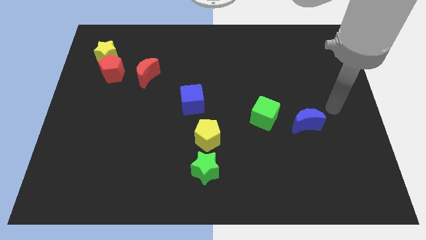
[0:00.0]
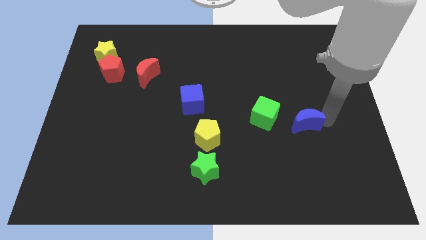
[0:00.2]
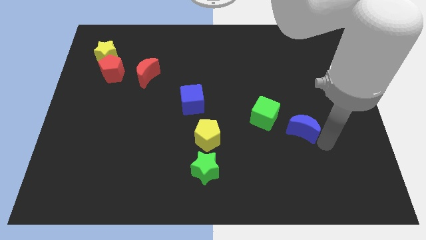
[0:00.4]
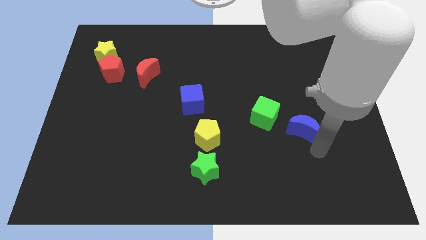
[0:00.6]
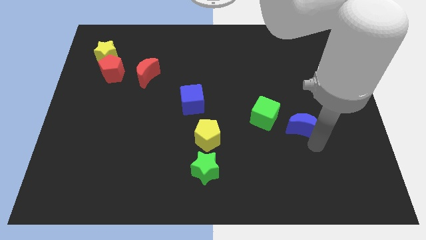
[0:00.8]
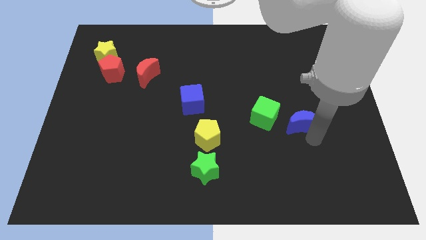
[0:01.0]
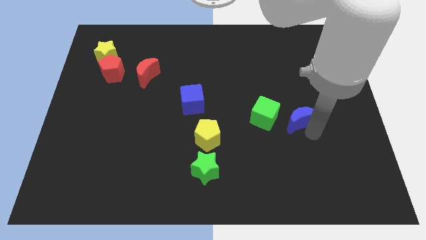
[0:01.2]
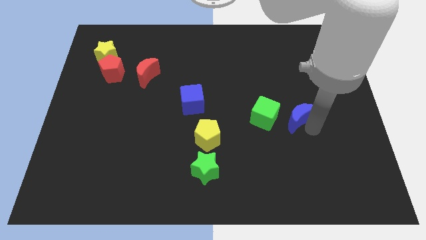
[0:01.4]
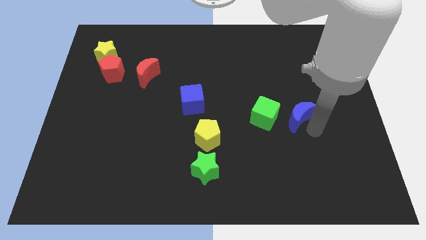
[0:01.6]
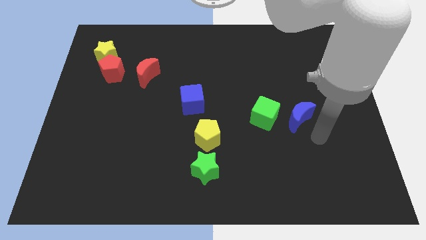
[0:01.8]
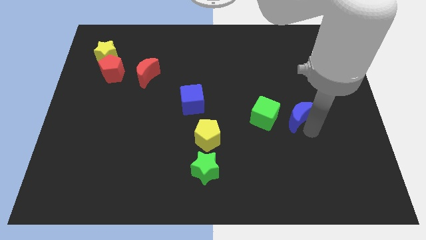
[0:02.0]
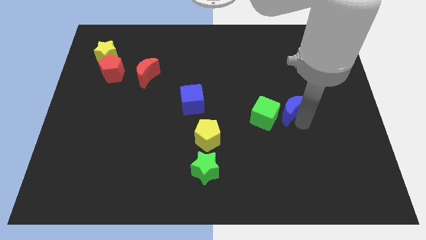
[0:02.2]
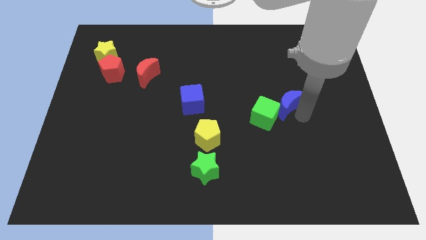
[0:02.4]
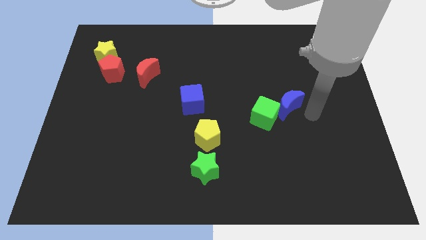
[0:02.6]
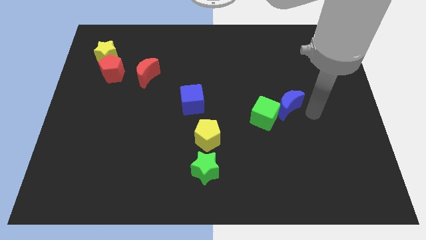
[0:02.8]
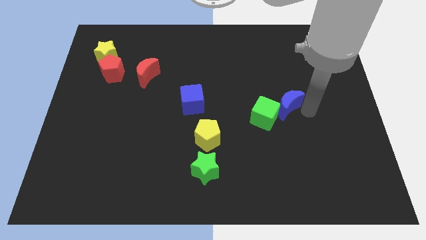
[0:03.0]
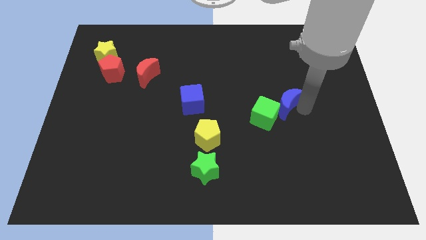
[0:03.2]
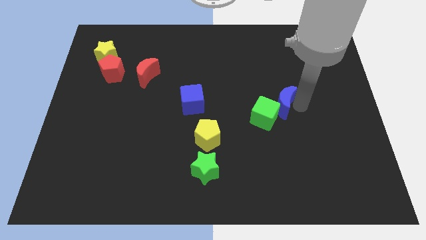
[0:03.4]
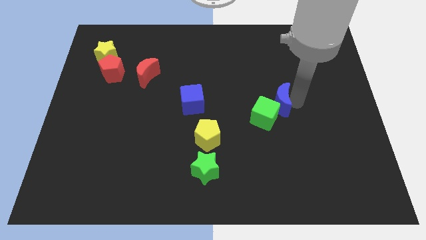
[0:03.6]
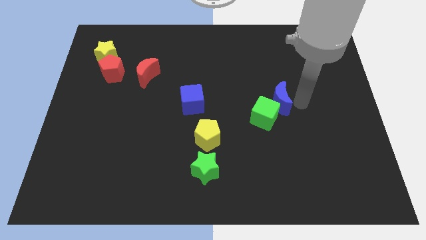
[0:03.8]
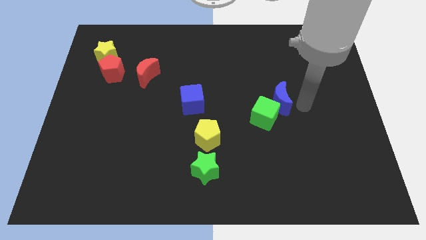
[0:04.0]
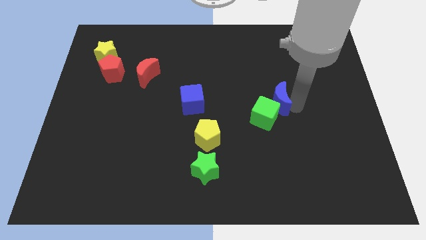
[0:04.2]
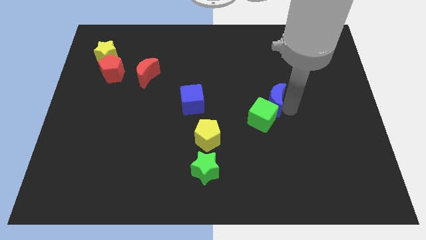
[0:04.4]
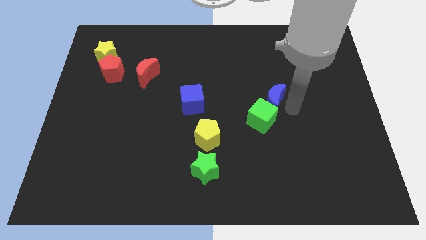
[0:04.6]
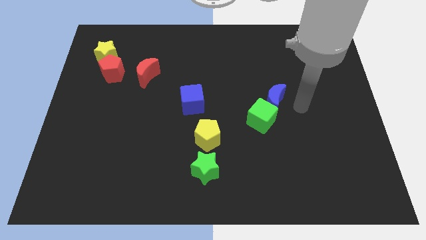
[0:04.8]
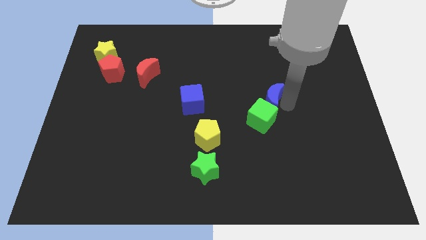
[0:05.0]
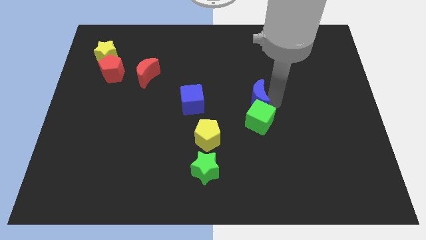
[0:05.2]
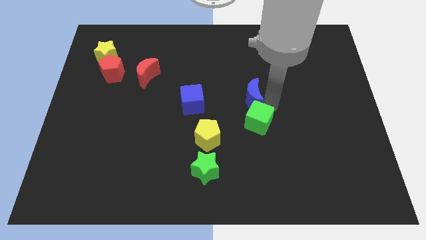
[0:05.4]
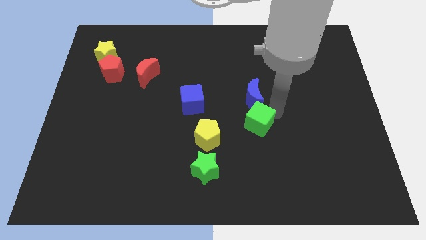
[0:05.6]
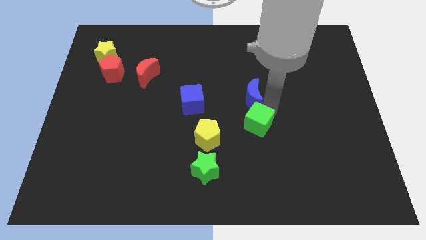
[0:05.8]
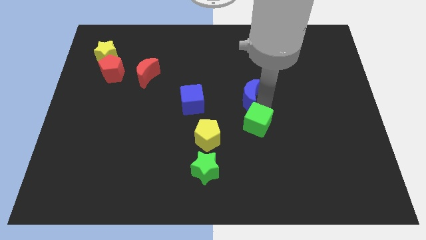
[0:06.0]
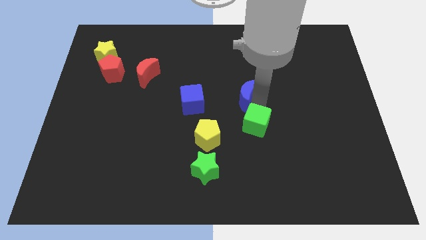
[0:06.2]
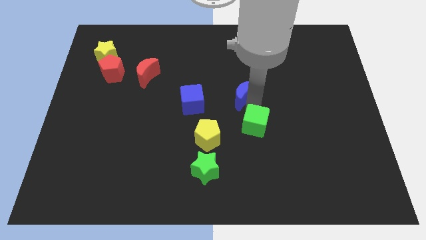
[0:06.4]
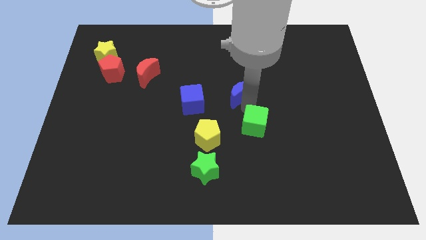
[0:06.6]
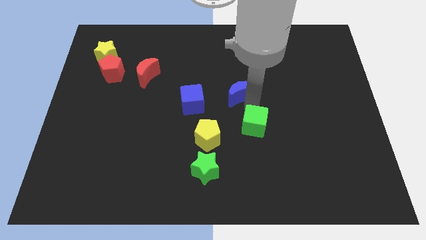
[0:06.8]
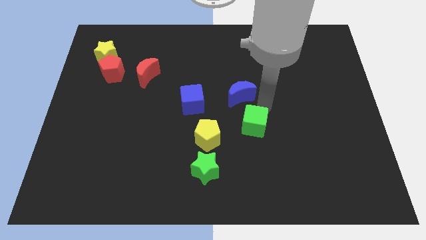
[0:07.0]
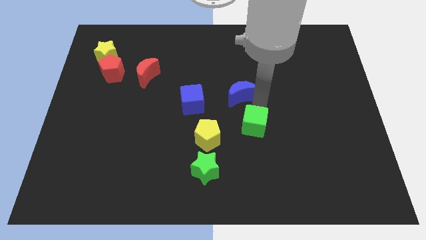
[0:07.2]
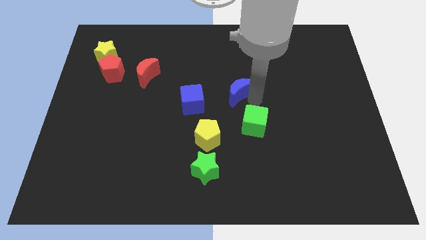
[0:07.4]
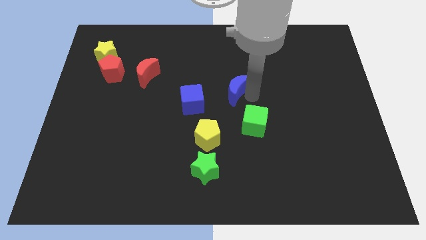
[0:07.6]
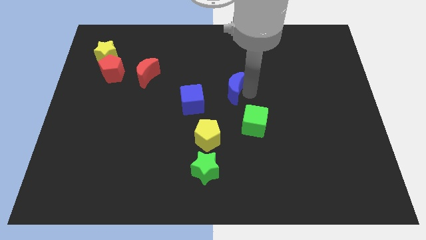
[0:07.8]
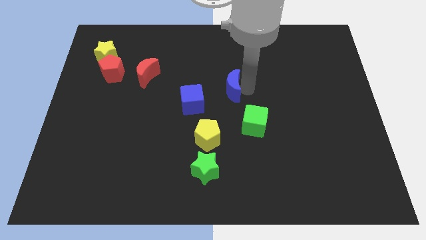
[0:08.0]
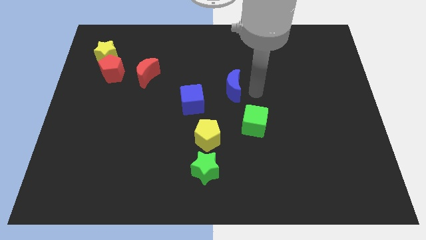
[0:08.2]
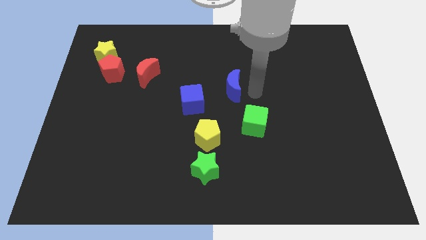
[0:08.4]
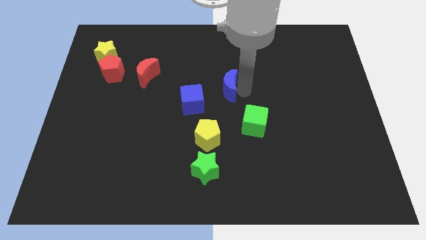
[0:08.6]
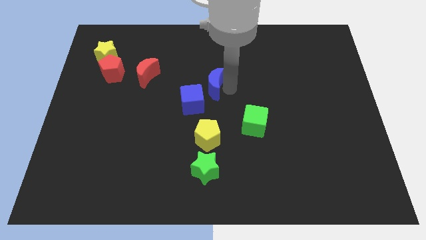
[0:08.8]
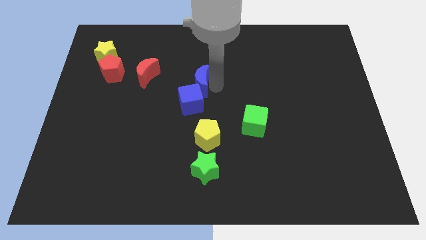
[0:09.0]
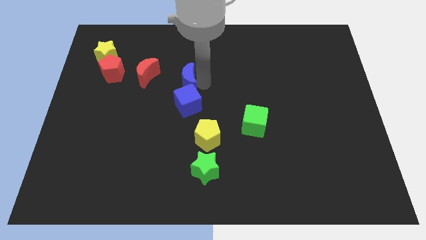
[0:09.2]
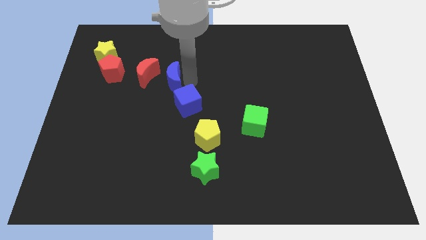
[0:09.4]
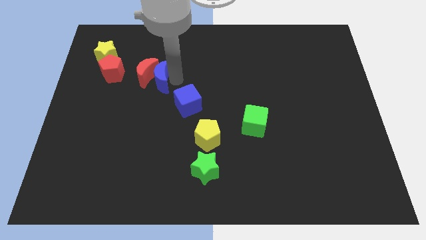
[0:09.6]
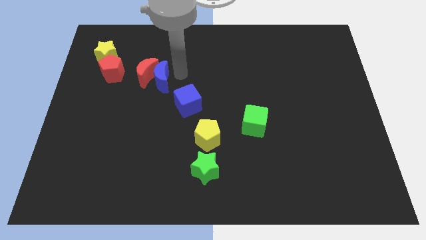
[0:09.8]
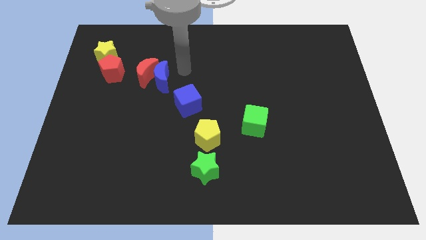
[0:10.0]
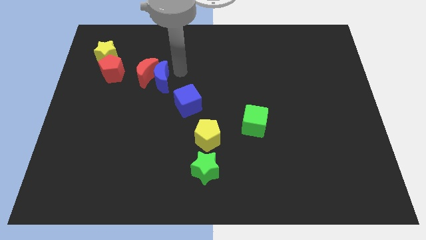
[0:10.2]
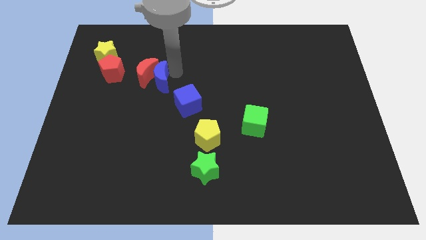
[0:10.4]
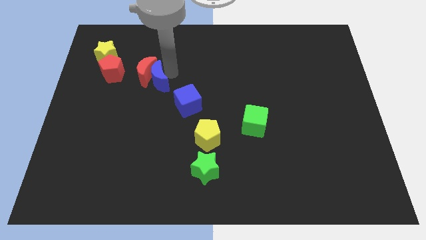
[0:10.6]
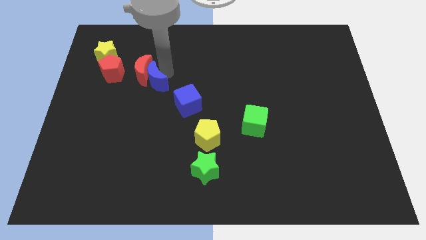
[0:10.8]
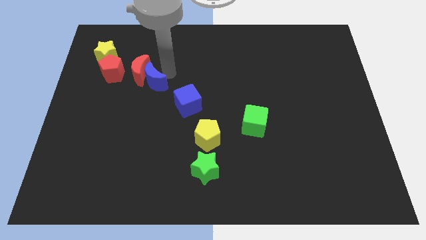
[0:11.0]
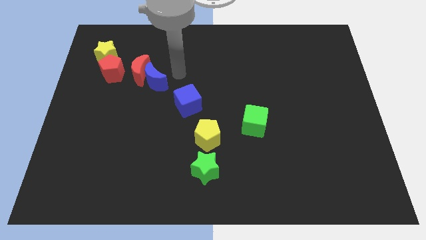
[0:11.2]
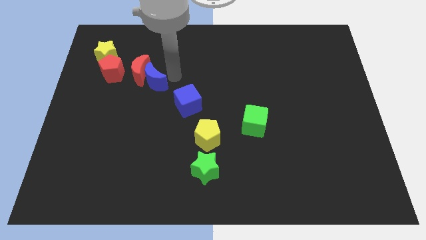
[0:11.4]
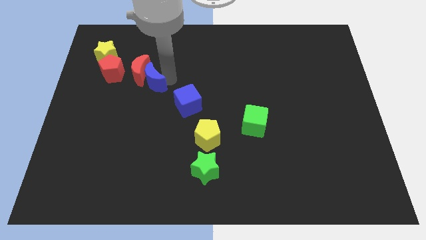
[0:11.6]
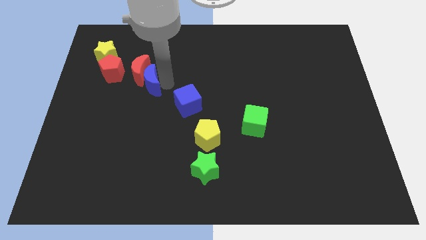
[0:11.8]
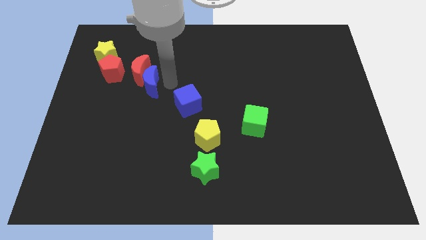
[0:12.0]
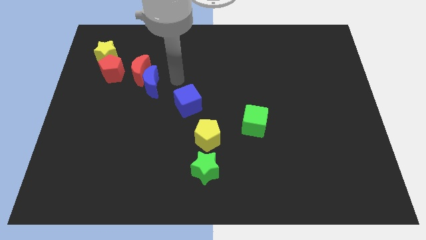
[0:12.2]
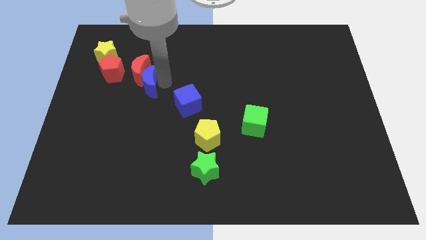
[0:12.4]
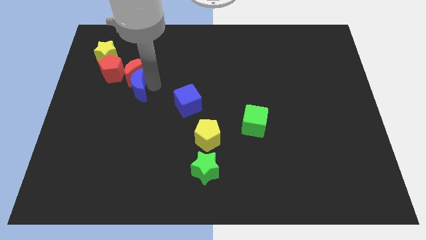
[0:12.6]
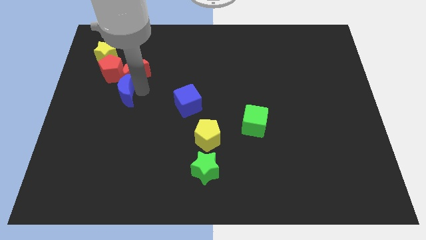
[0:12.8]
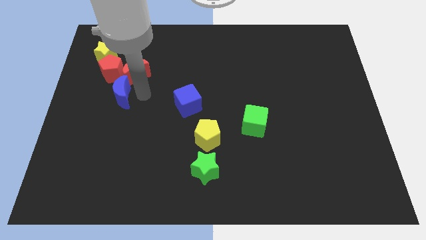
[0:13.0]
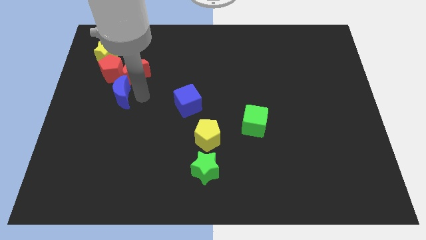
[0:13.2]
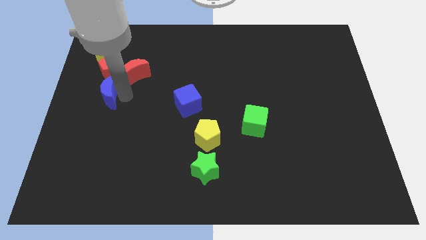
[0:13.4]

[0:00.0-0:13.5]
push the blue moon to the center left

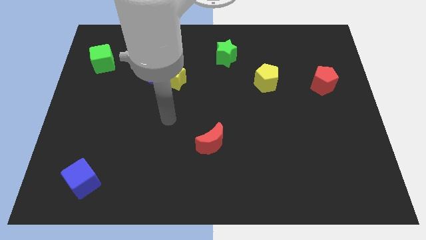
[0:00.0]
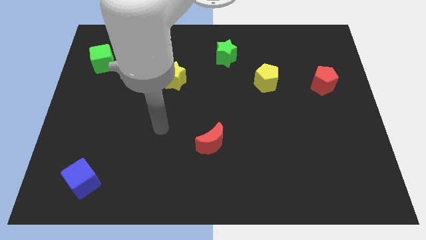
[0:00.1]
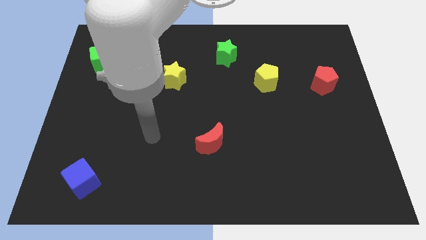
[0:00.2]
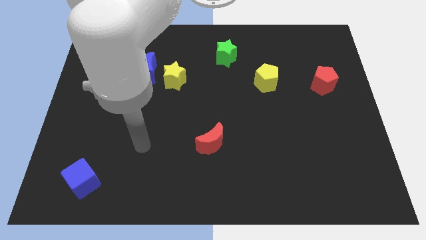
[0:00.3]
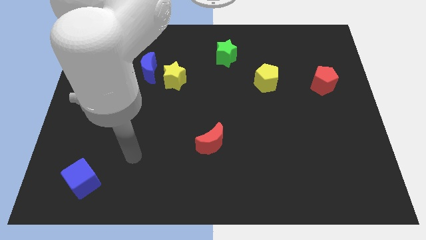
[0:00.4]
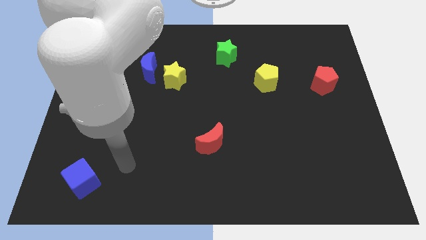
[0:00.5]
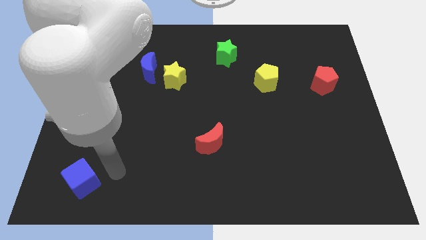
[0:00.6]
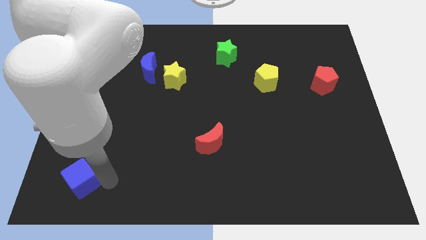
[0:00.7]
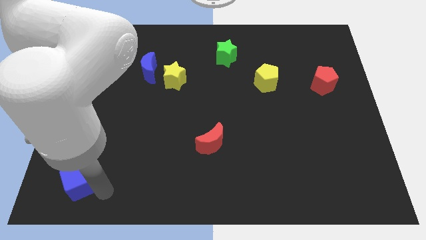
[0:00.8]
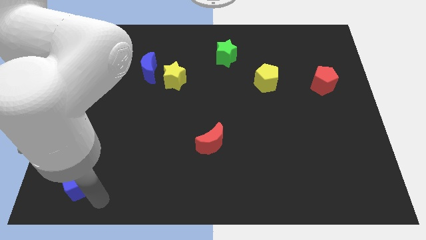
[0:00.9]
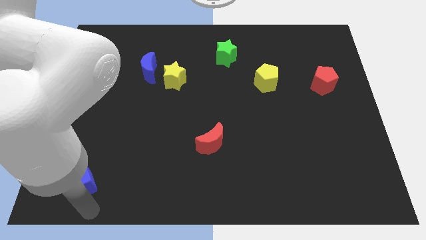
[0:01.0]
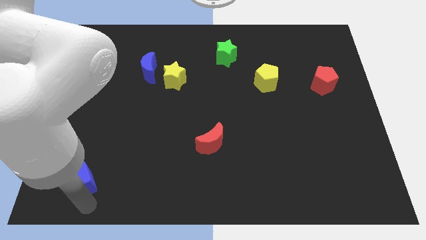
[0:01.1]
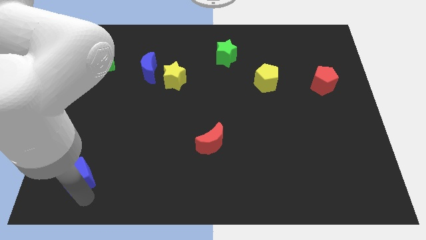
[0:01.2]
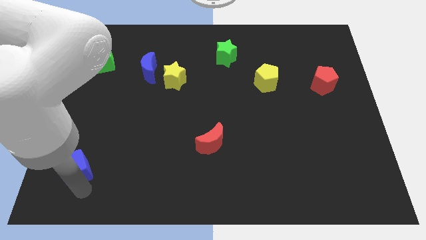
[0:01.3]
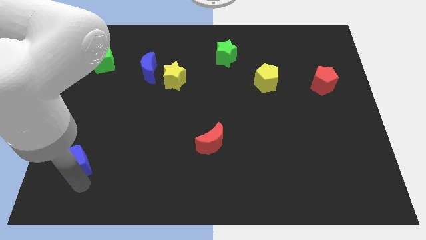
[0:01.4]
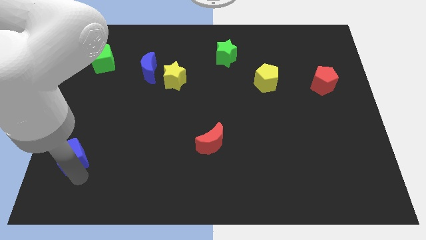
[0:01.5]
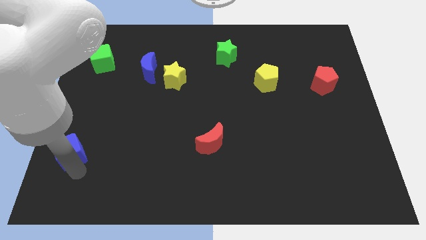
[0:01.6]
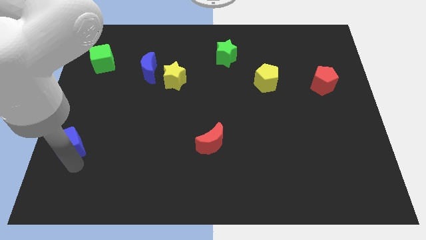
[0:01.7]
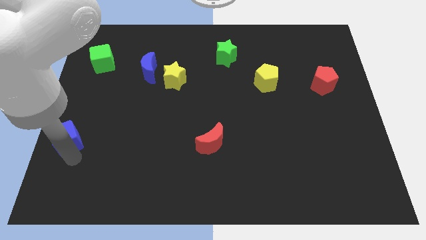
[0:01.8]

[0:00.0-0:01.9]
put the blue cube to the center left
